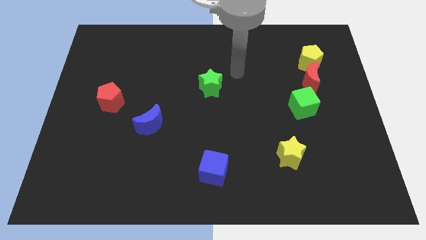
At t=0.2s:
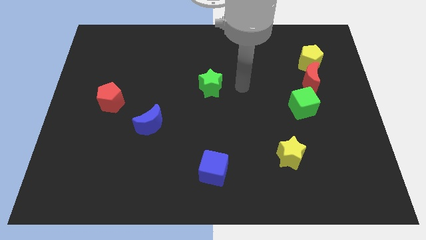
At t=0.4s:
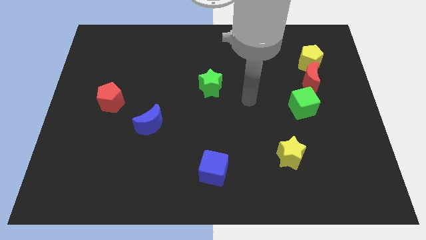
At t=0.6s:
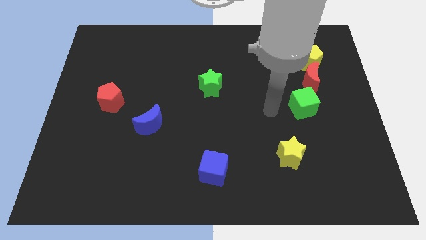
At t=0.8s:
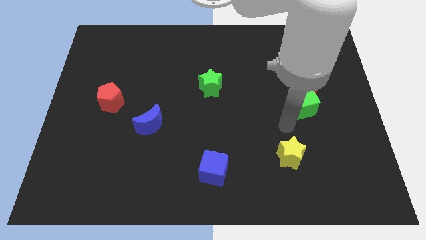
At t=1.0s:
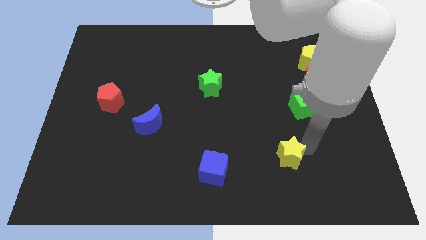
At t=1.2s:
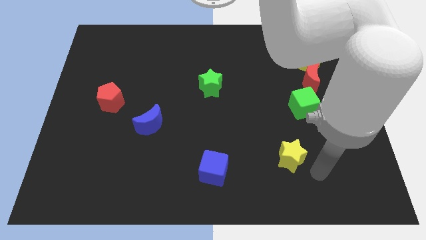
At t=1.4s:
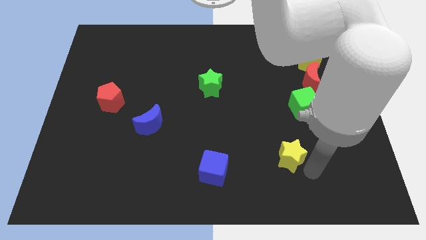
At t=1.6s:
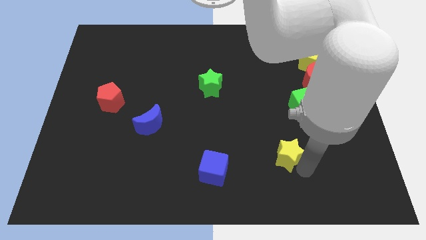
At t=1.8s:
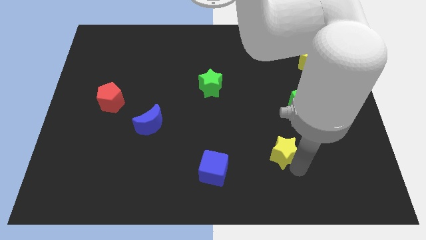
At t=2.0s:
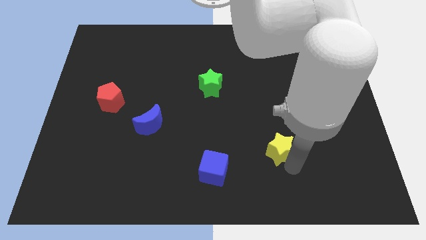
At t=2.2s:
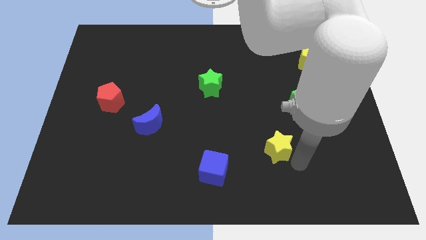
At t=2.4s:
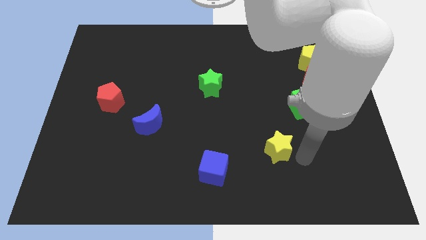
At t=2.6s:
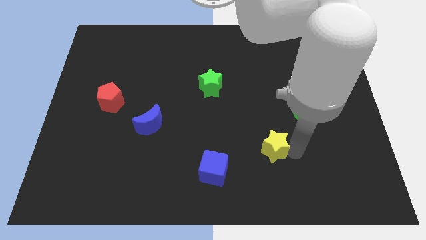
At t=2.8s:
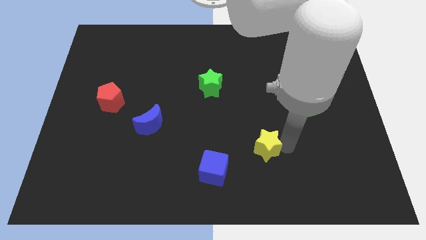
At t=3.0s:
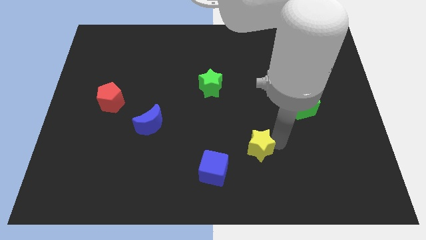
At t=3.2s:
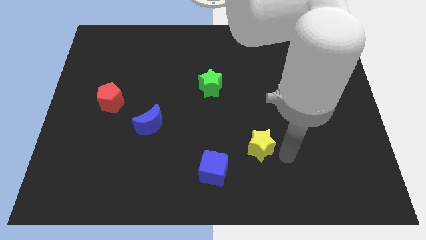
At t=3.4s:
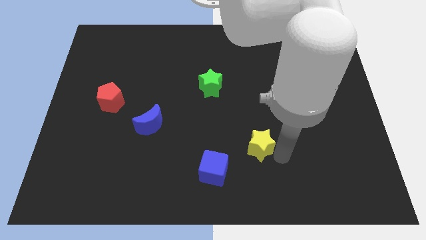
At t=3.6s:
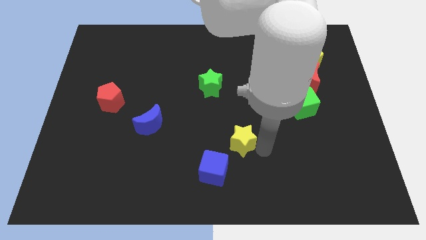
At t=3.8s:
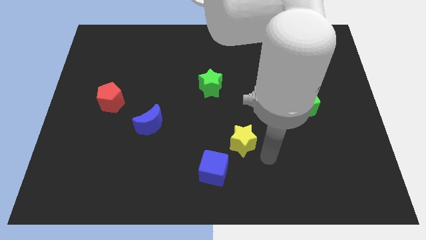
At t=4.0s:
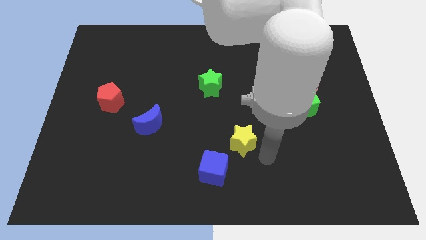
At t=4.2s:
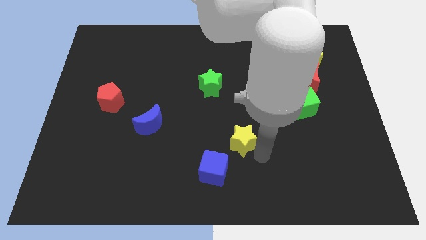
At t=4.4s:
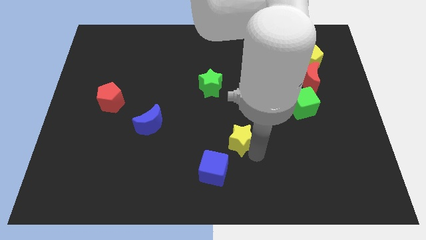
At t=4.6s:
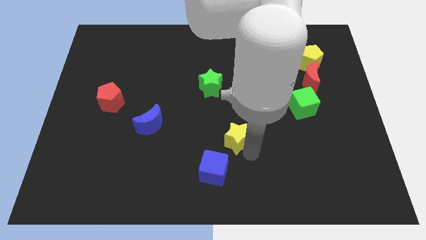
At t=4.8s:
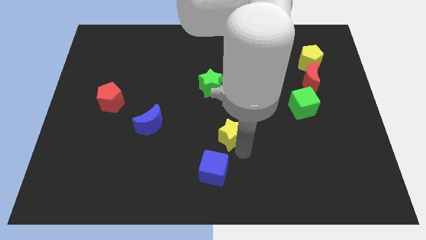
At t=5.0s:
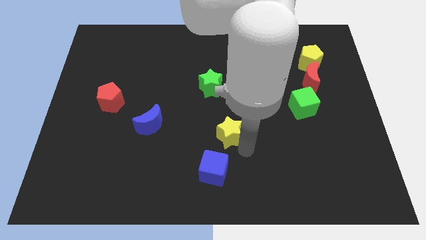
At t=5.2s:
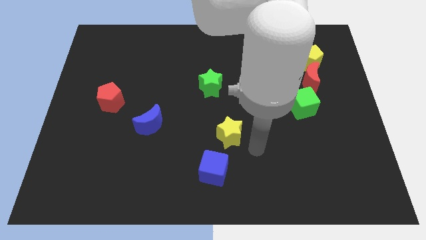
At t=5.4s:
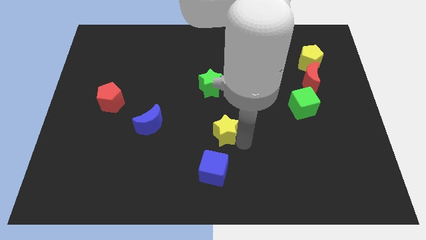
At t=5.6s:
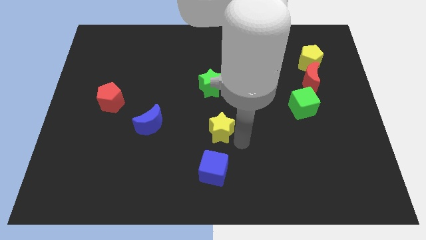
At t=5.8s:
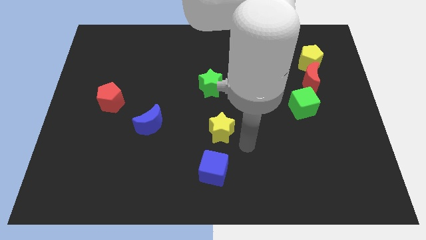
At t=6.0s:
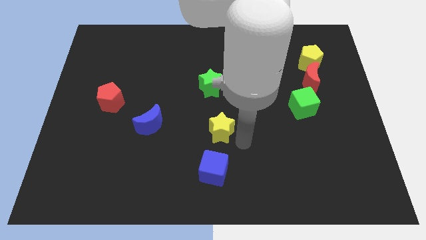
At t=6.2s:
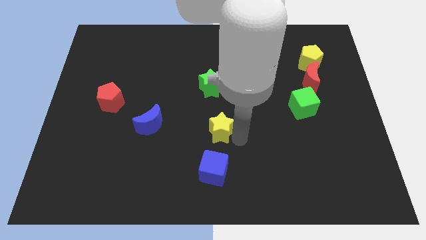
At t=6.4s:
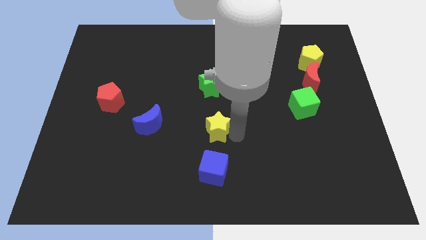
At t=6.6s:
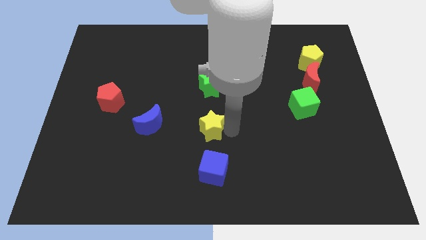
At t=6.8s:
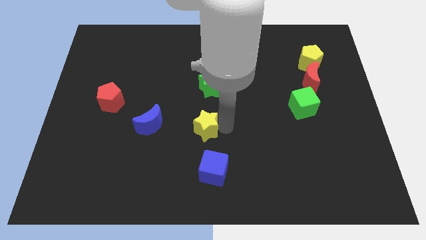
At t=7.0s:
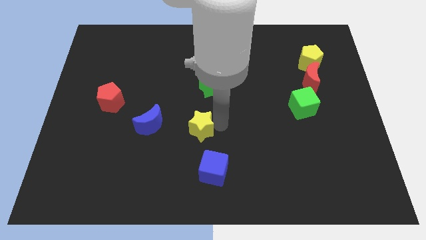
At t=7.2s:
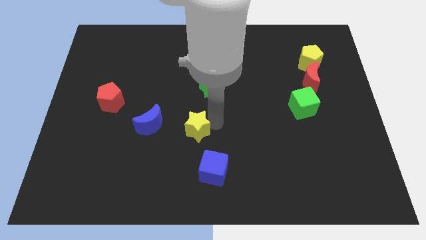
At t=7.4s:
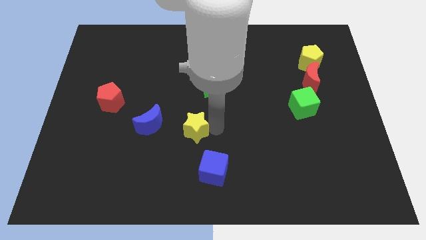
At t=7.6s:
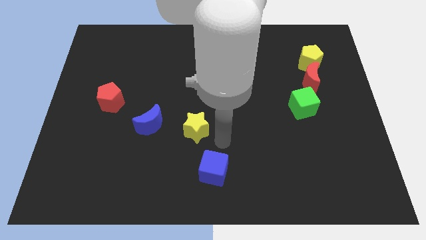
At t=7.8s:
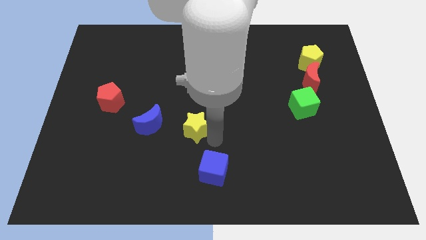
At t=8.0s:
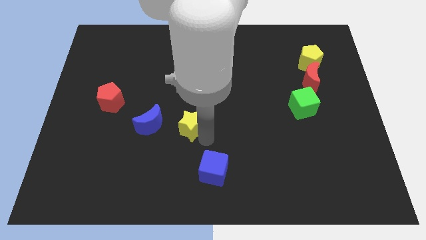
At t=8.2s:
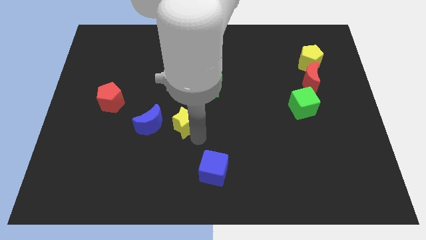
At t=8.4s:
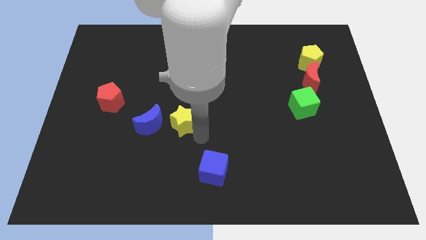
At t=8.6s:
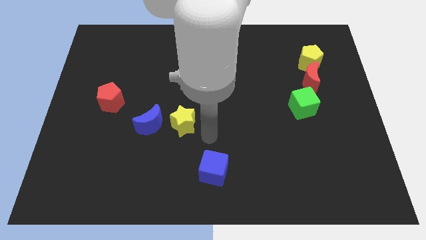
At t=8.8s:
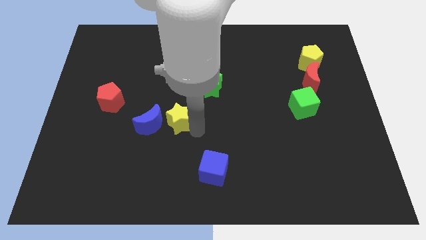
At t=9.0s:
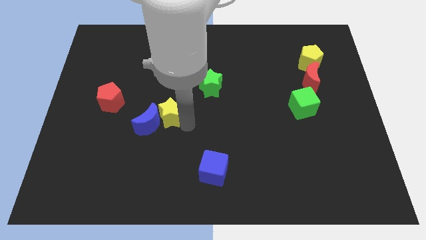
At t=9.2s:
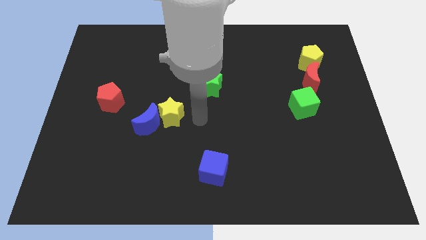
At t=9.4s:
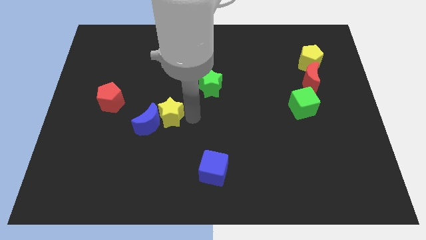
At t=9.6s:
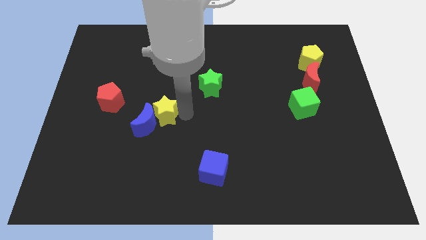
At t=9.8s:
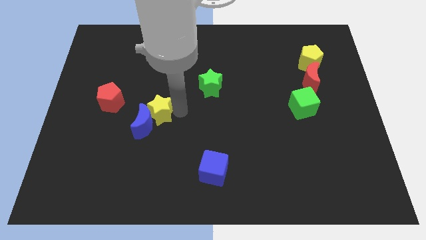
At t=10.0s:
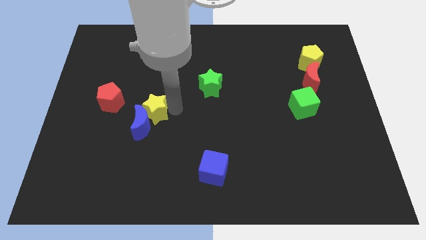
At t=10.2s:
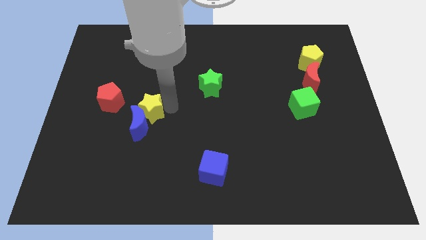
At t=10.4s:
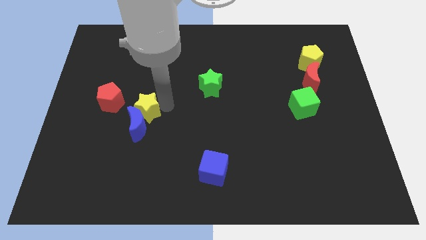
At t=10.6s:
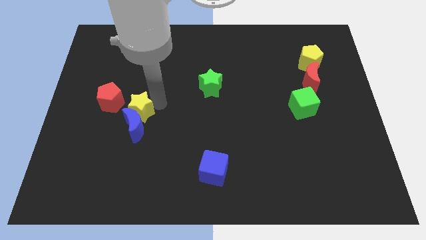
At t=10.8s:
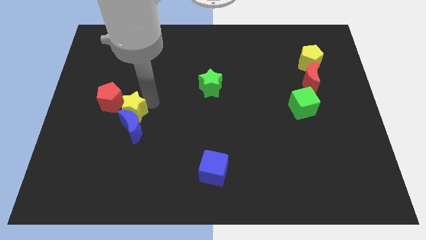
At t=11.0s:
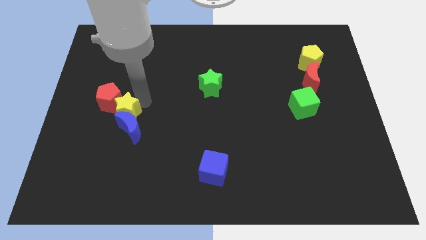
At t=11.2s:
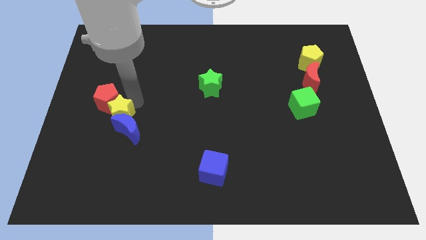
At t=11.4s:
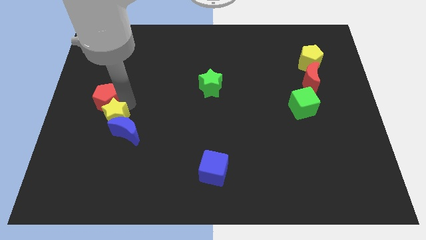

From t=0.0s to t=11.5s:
slide the yellow star just left of the blue moon

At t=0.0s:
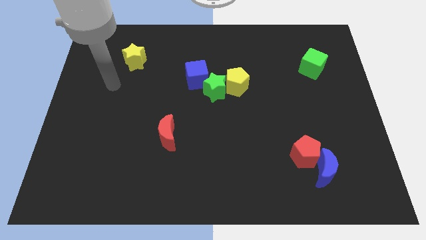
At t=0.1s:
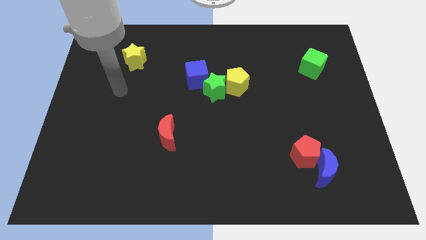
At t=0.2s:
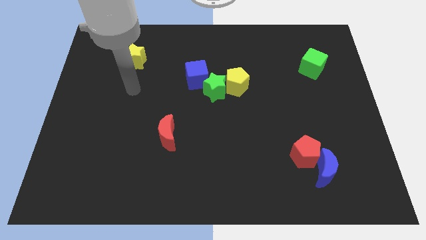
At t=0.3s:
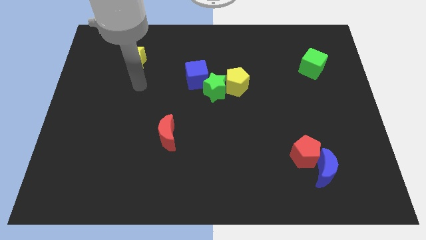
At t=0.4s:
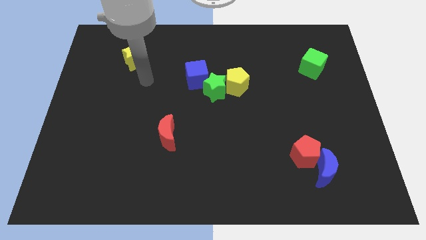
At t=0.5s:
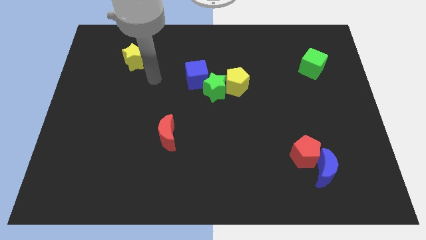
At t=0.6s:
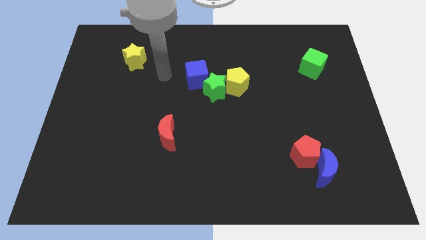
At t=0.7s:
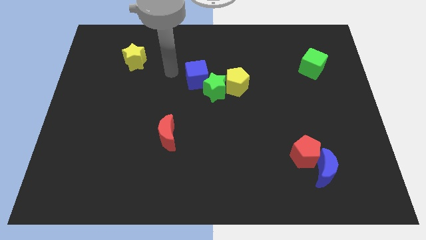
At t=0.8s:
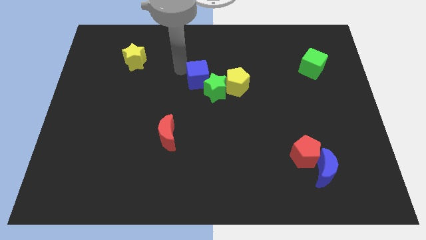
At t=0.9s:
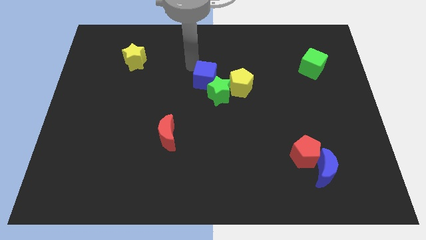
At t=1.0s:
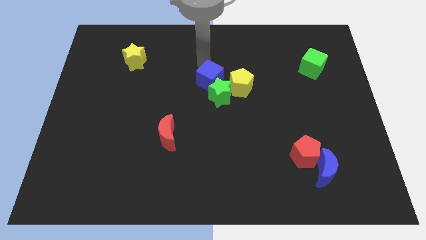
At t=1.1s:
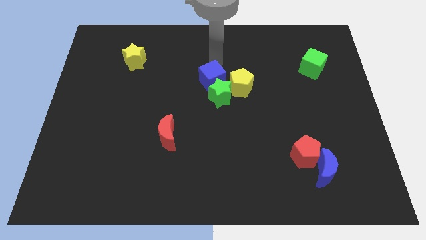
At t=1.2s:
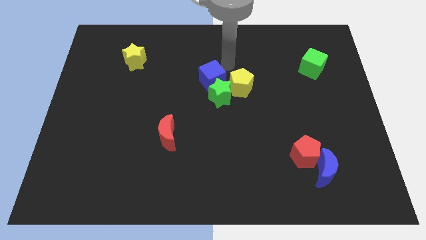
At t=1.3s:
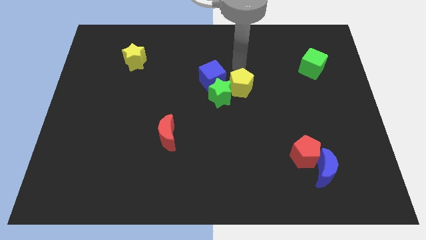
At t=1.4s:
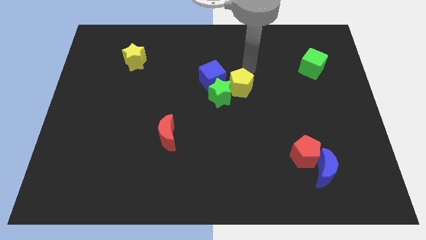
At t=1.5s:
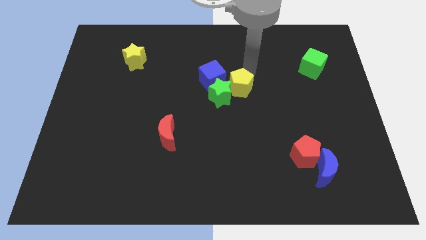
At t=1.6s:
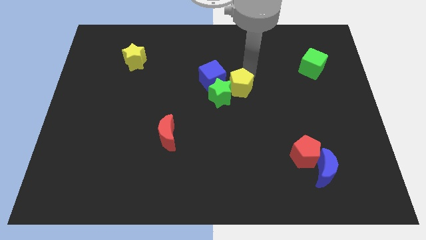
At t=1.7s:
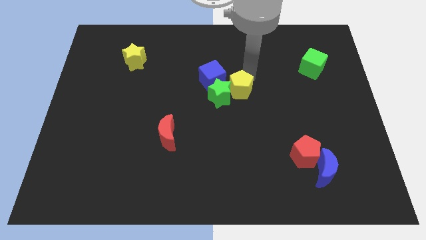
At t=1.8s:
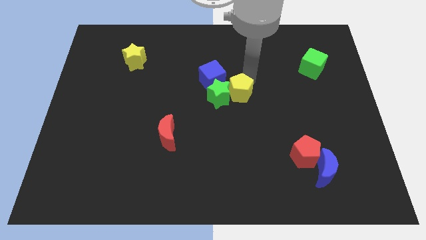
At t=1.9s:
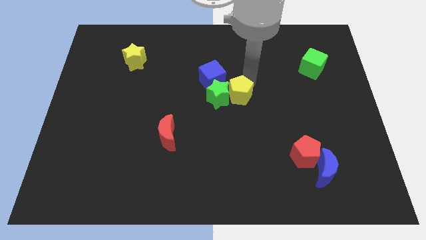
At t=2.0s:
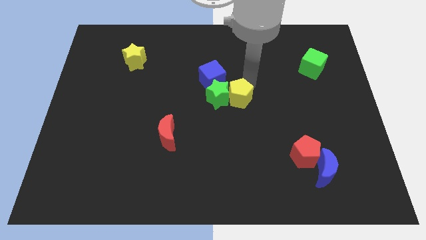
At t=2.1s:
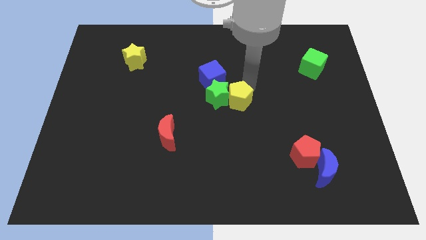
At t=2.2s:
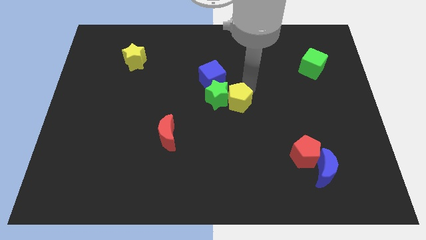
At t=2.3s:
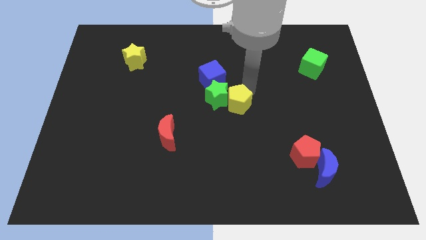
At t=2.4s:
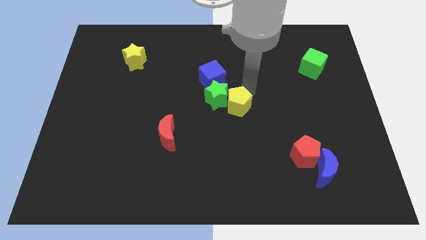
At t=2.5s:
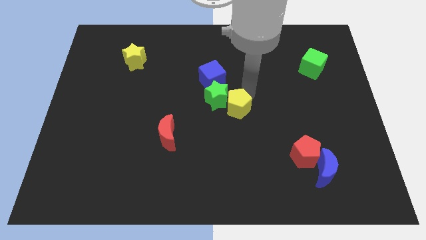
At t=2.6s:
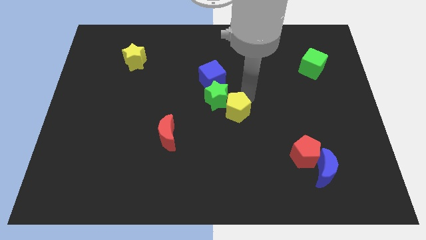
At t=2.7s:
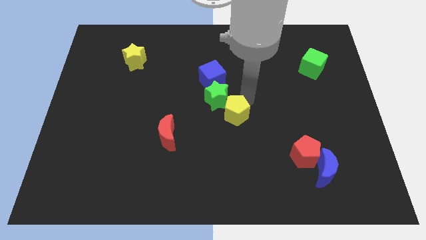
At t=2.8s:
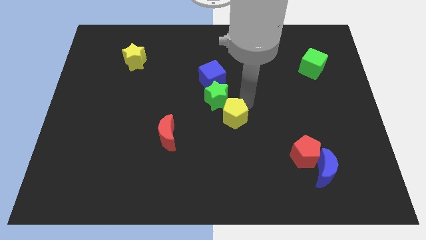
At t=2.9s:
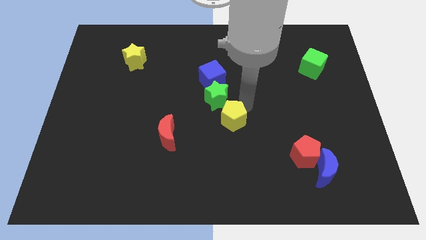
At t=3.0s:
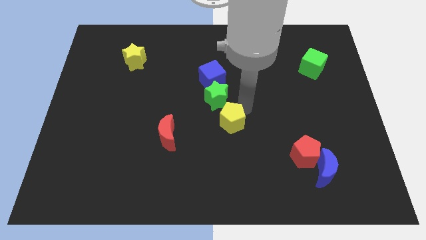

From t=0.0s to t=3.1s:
push the yellow pentagon just right of the red moon
